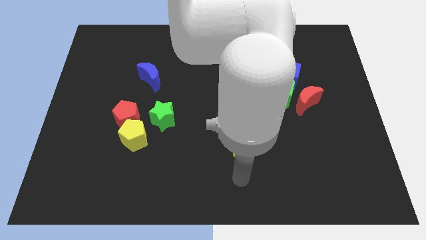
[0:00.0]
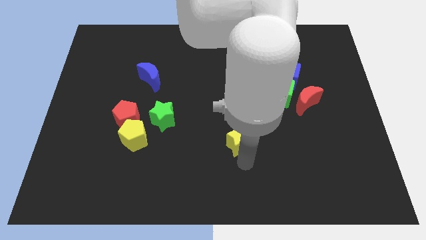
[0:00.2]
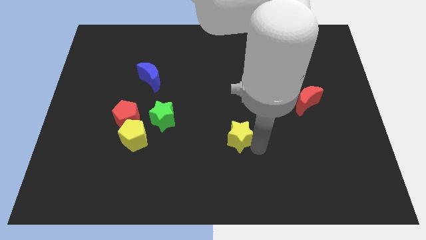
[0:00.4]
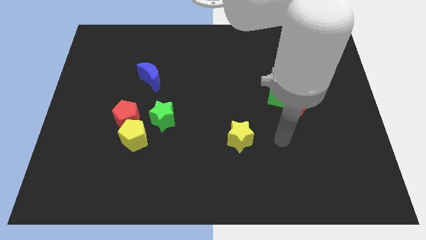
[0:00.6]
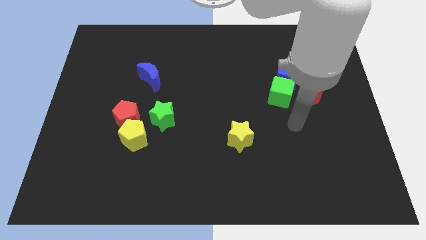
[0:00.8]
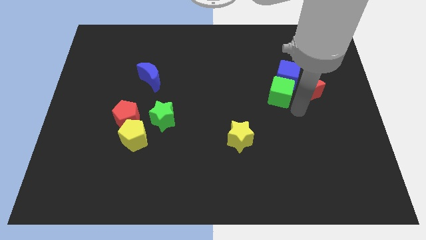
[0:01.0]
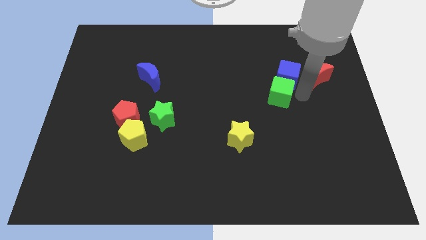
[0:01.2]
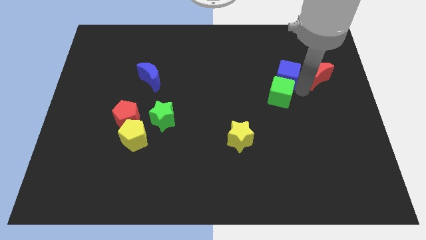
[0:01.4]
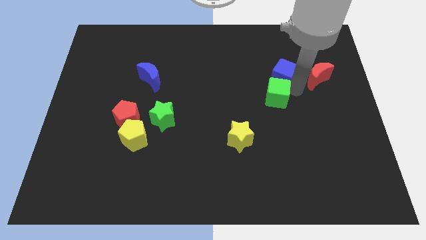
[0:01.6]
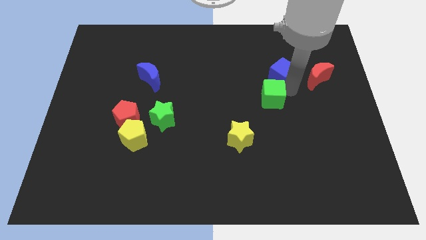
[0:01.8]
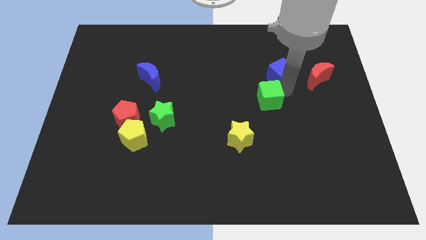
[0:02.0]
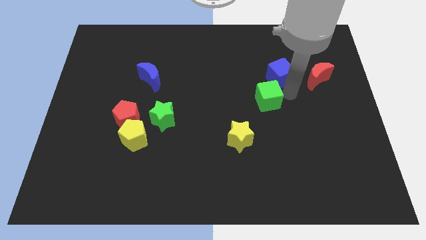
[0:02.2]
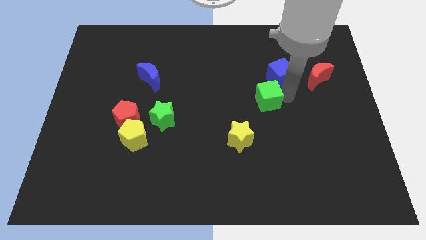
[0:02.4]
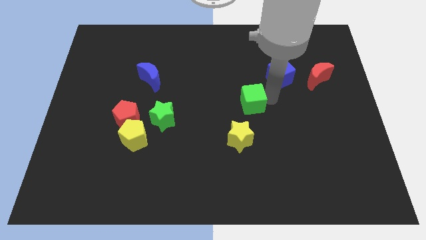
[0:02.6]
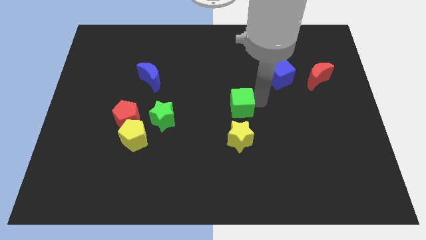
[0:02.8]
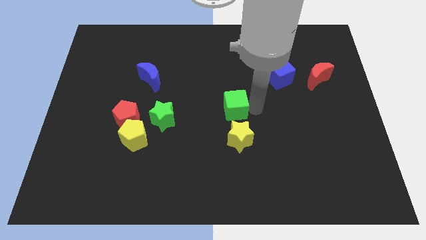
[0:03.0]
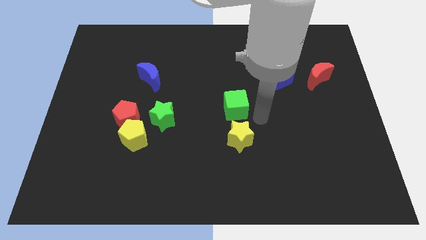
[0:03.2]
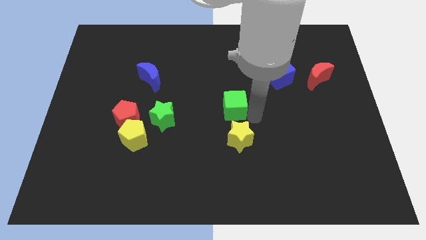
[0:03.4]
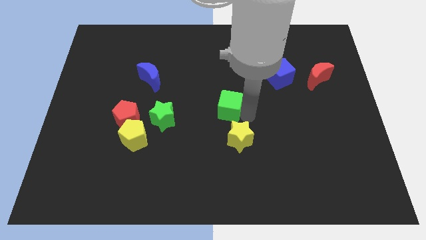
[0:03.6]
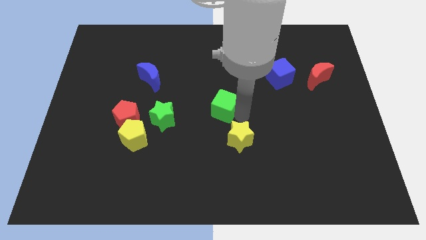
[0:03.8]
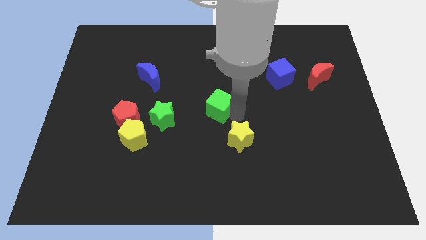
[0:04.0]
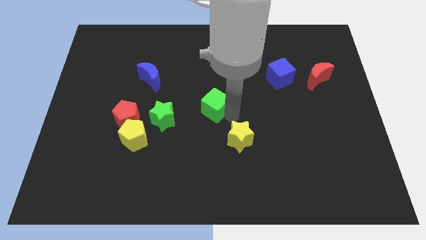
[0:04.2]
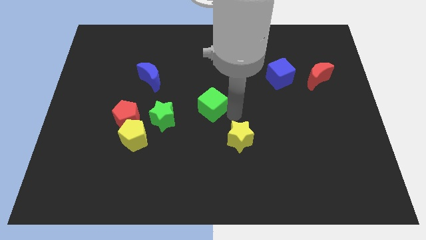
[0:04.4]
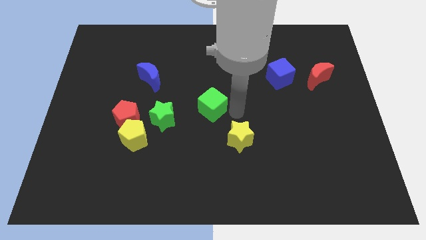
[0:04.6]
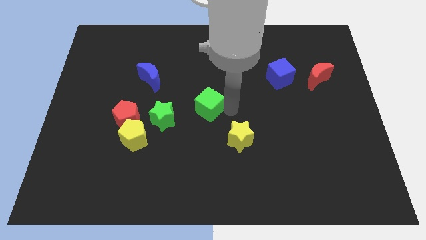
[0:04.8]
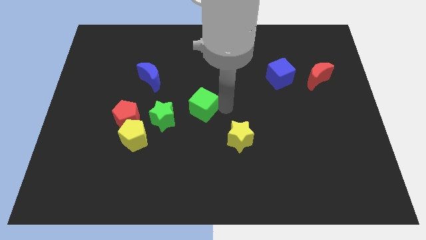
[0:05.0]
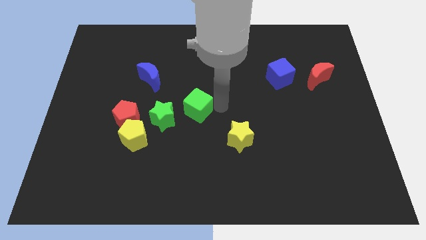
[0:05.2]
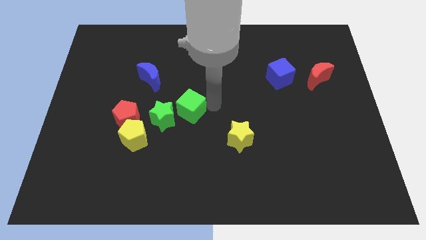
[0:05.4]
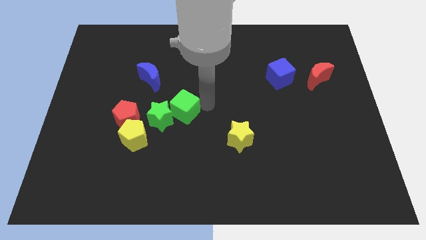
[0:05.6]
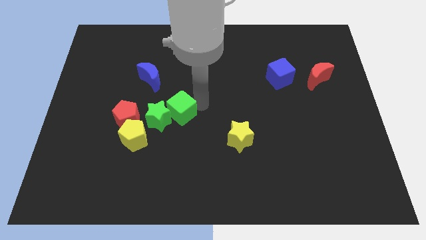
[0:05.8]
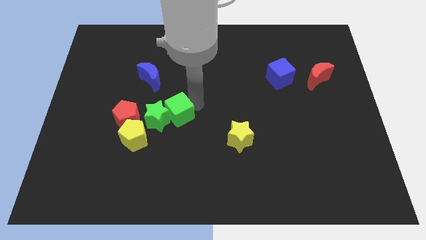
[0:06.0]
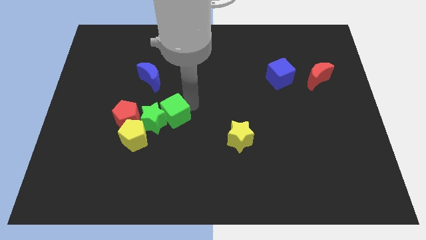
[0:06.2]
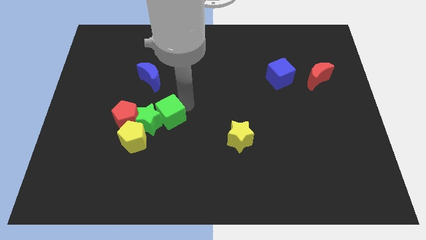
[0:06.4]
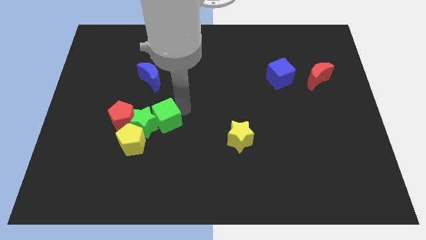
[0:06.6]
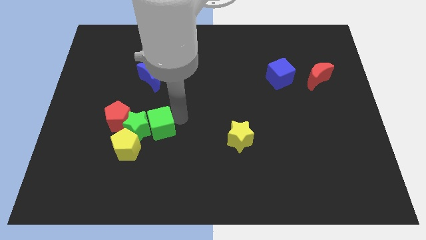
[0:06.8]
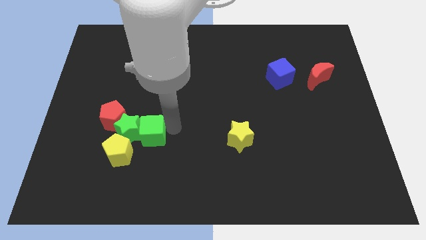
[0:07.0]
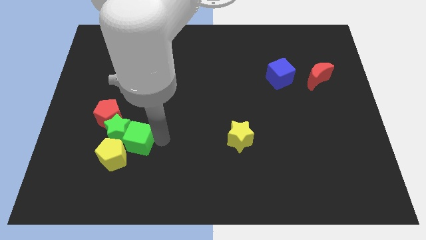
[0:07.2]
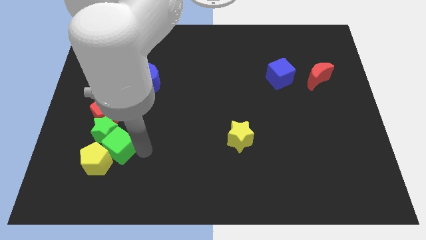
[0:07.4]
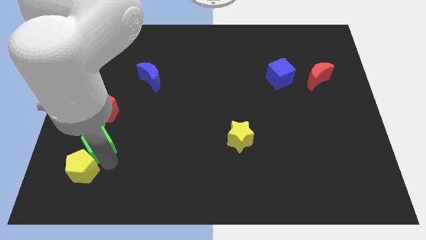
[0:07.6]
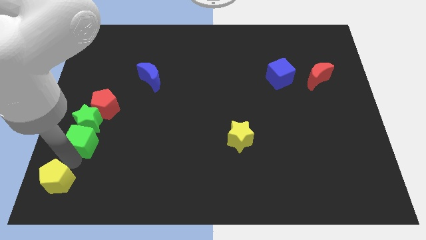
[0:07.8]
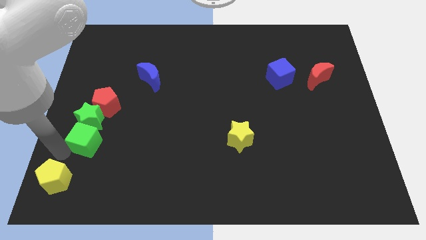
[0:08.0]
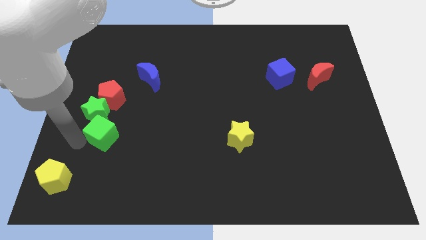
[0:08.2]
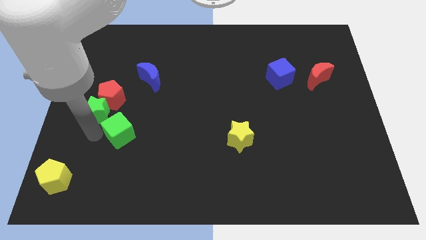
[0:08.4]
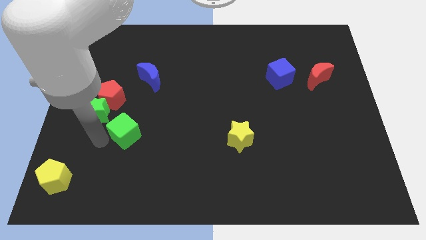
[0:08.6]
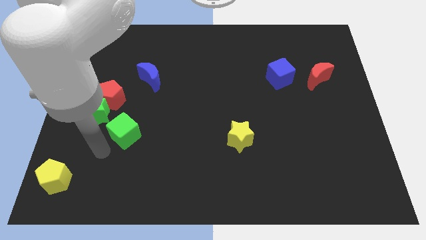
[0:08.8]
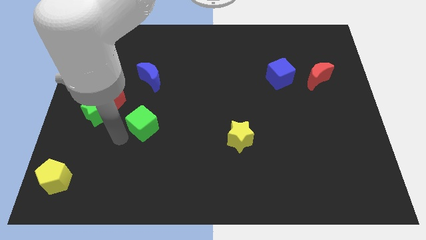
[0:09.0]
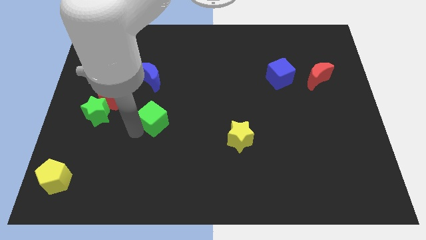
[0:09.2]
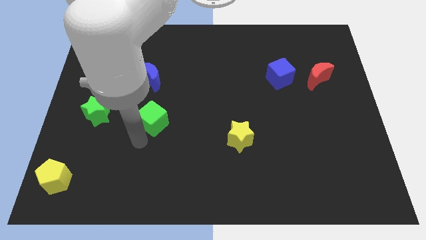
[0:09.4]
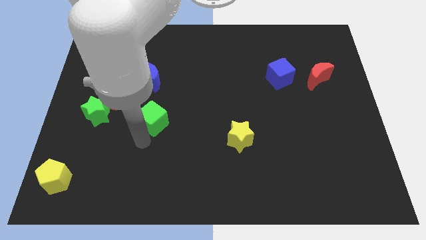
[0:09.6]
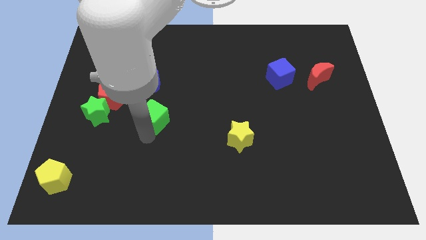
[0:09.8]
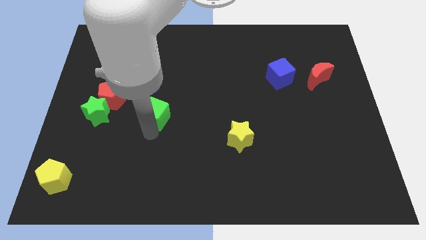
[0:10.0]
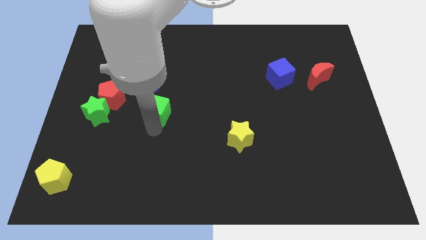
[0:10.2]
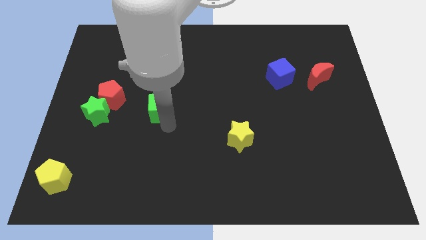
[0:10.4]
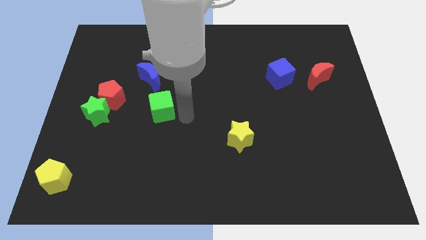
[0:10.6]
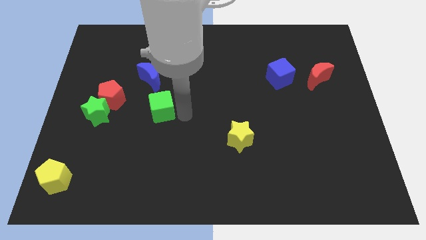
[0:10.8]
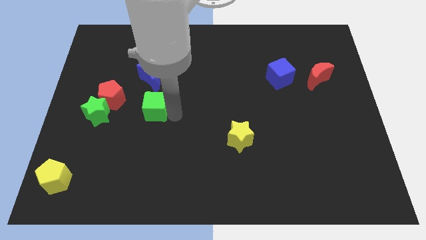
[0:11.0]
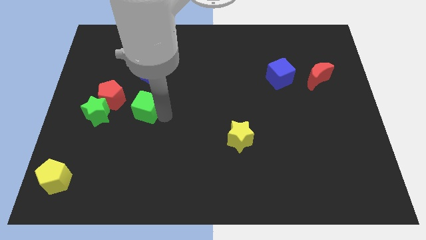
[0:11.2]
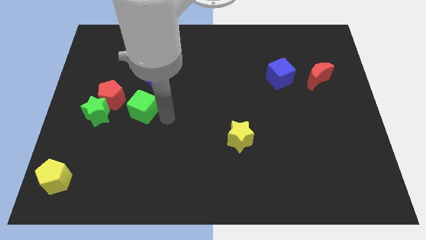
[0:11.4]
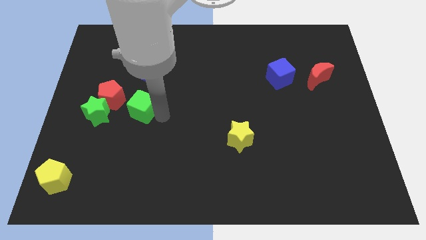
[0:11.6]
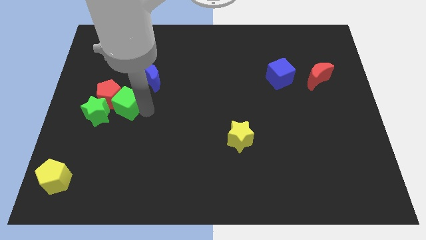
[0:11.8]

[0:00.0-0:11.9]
move the green cube to the red pentagon
